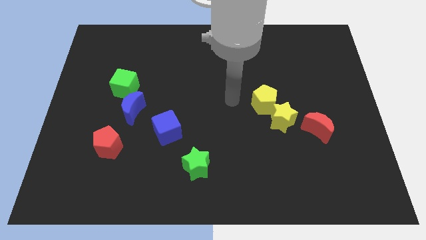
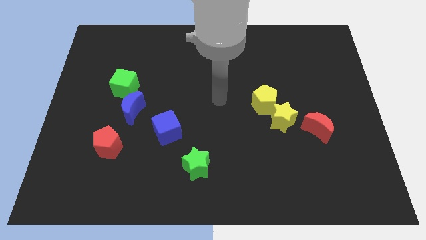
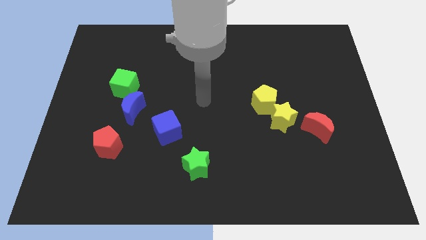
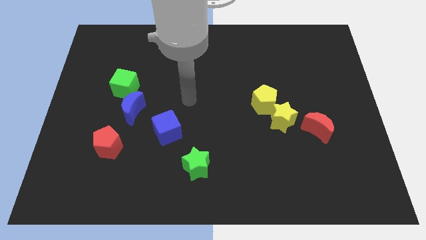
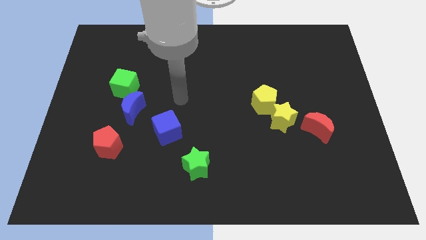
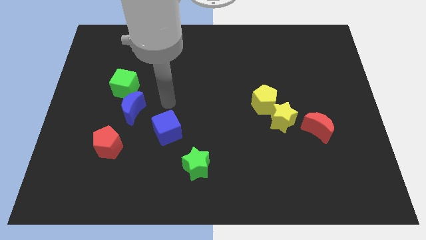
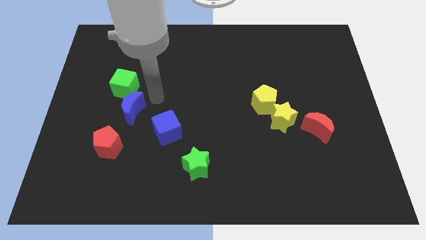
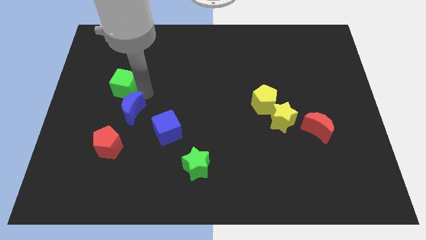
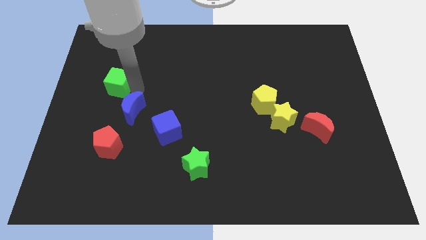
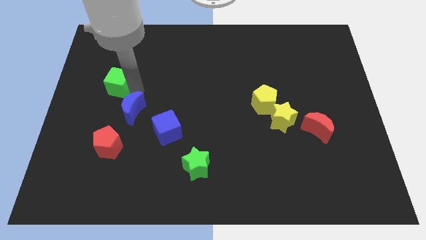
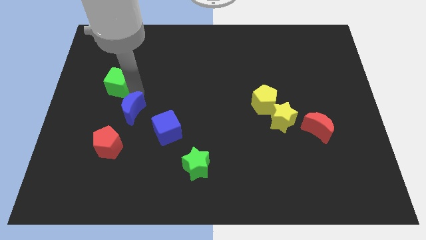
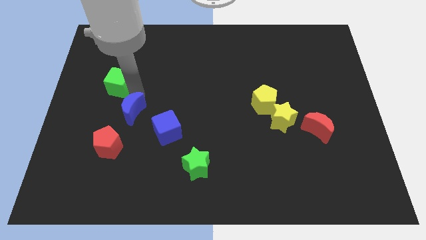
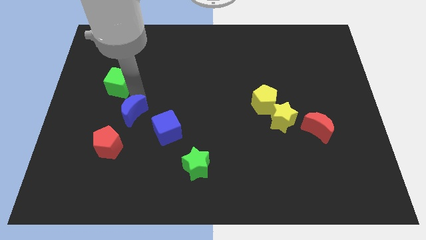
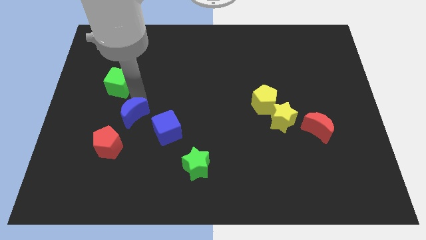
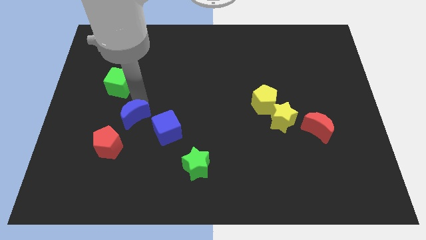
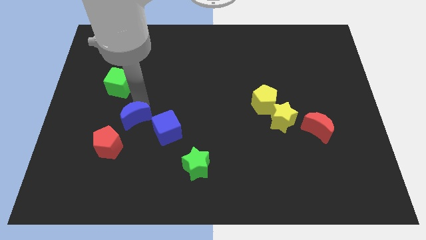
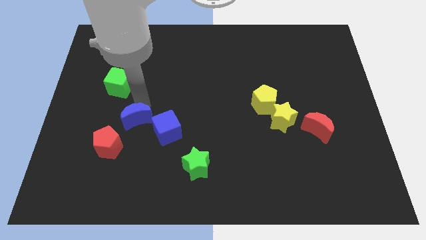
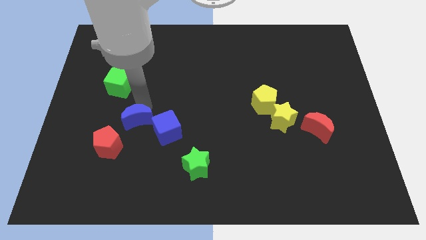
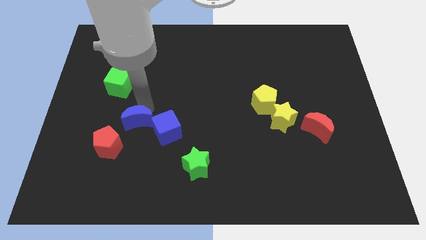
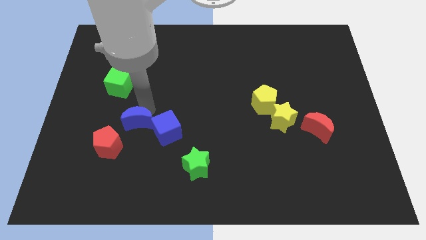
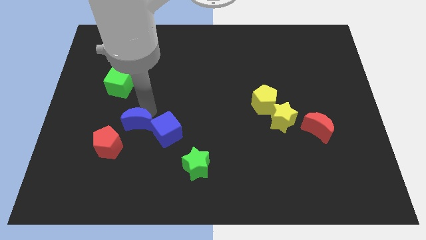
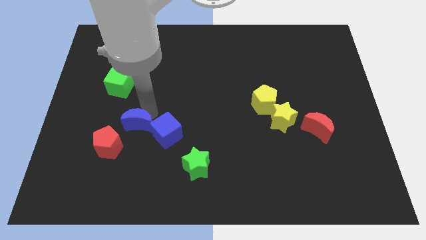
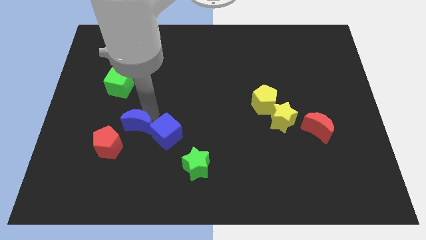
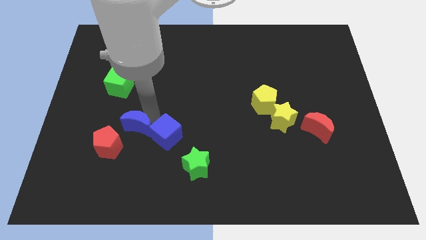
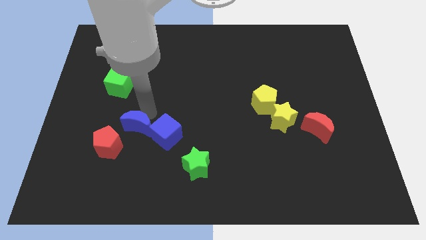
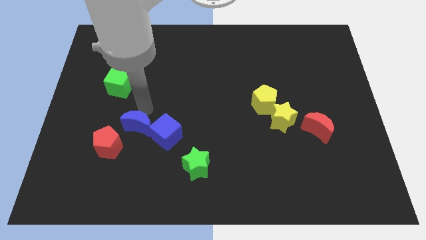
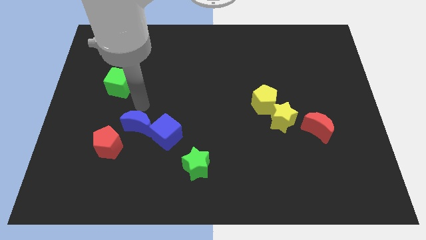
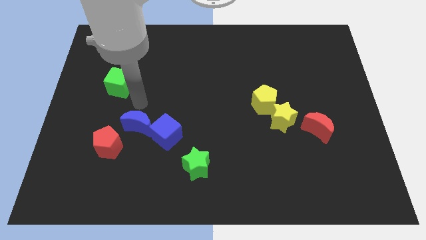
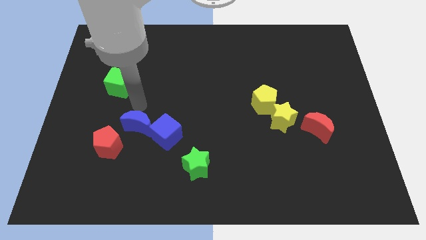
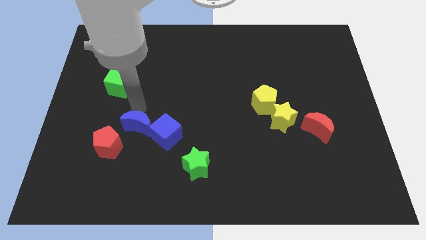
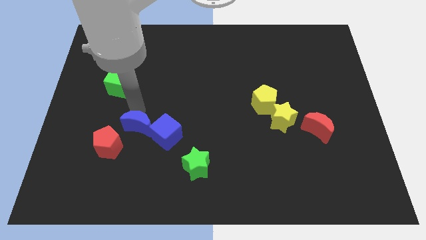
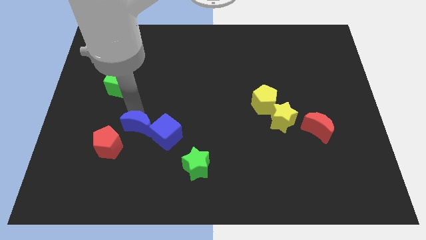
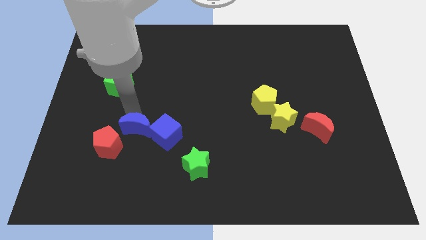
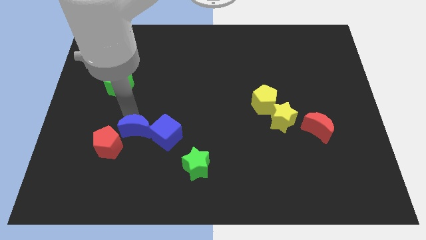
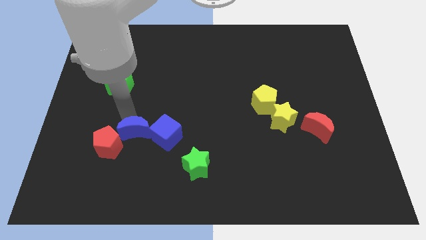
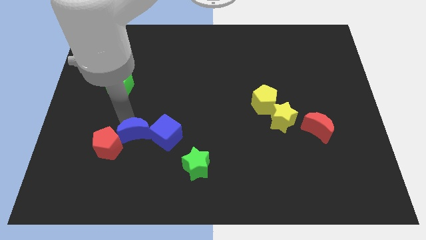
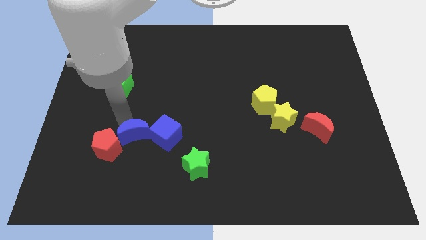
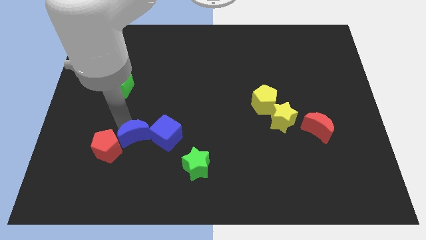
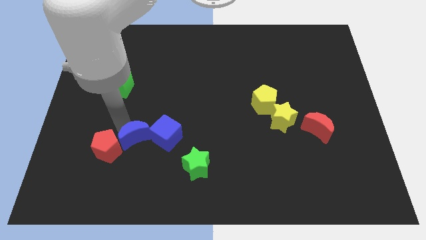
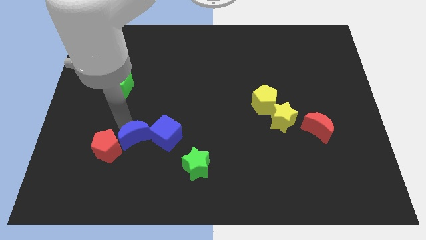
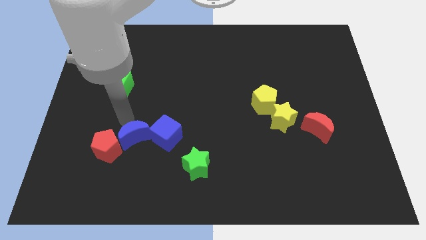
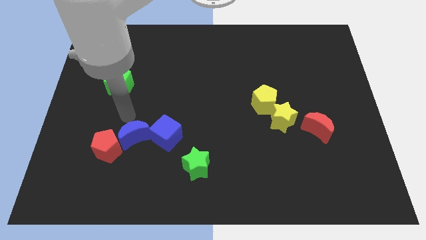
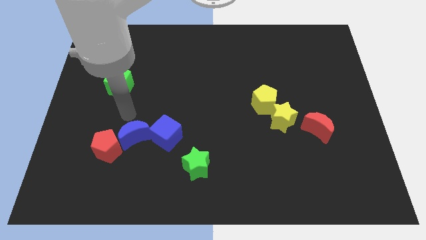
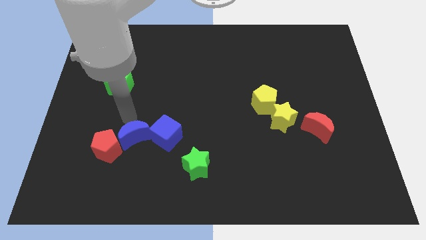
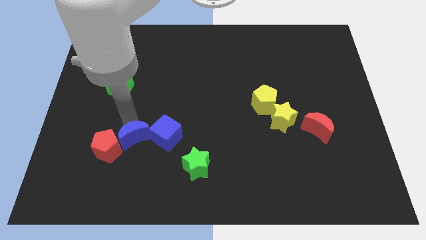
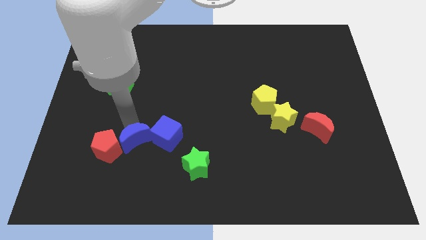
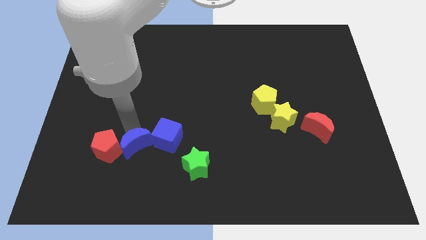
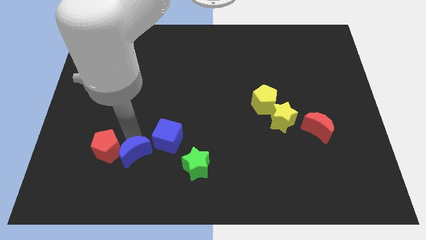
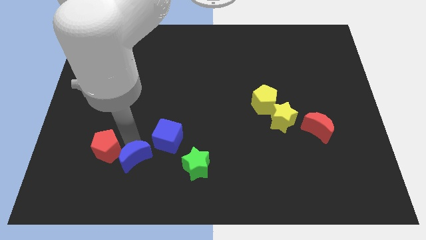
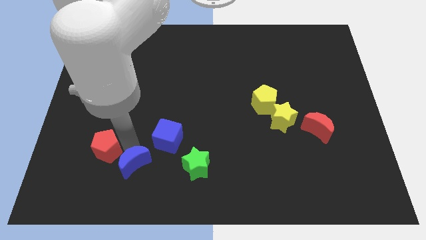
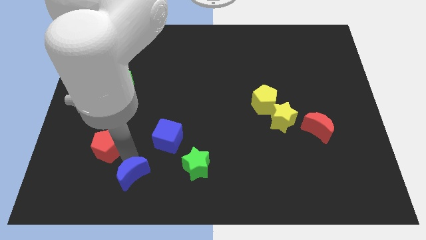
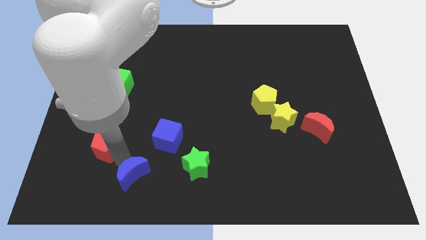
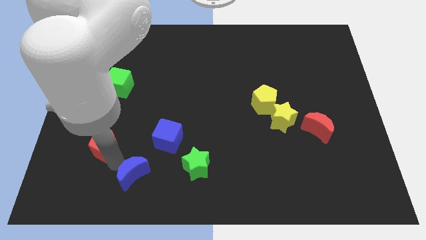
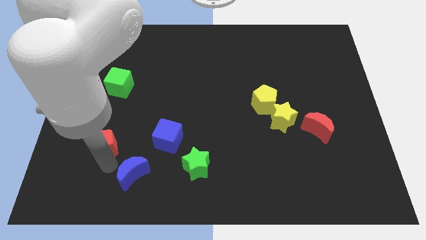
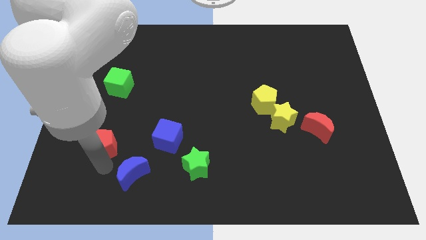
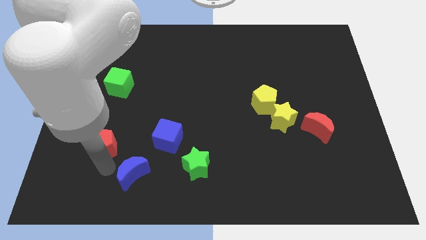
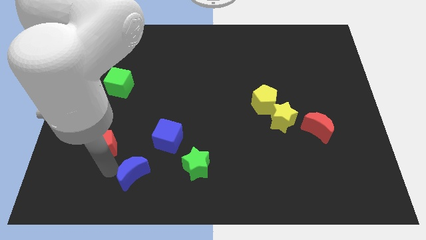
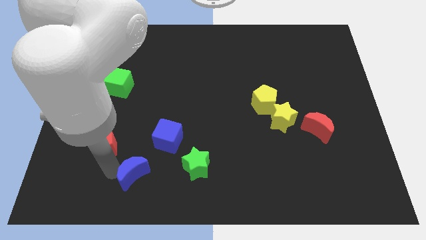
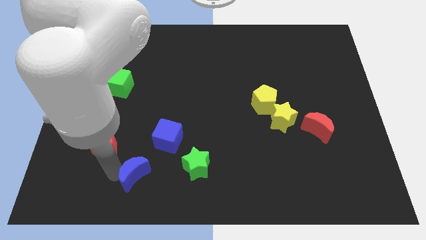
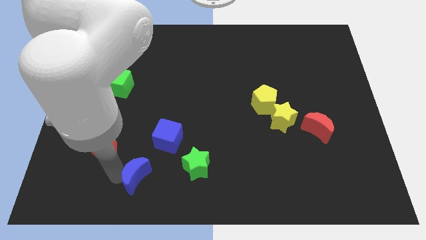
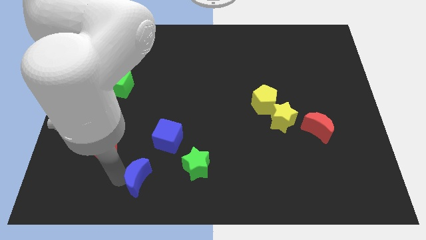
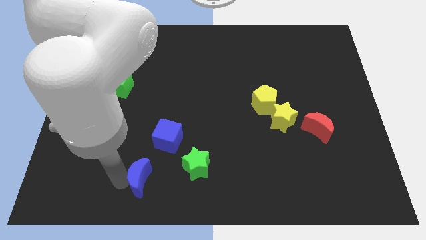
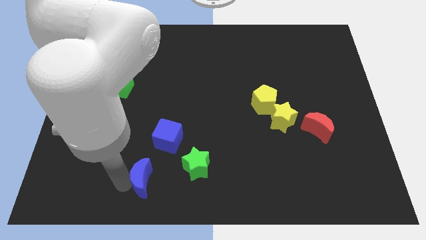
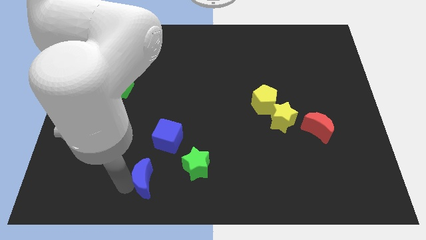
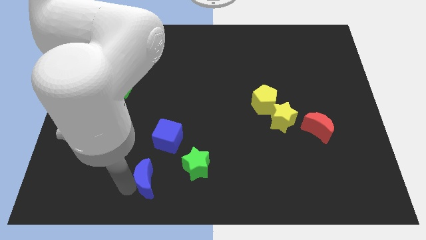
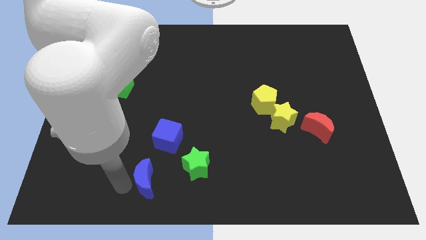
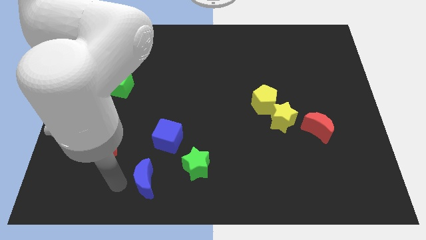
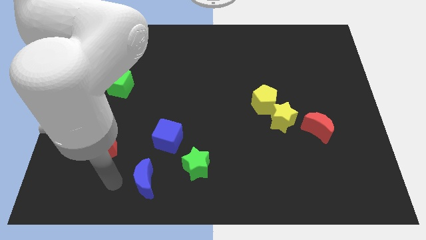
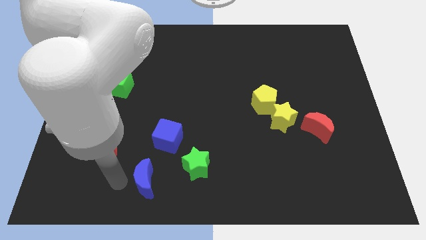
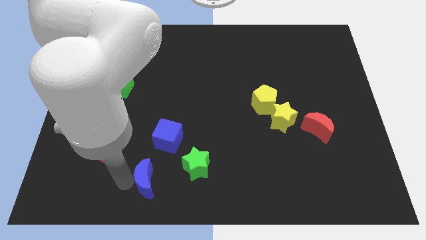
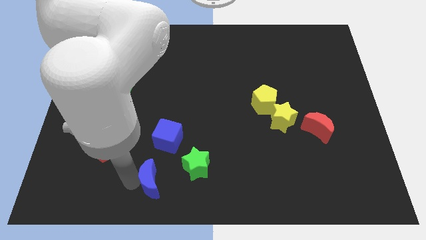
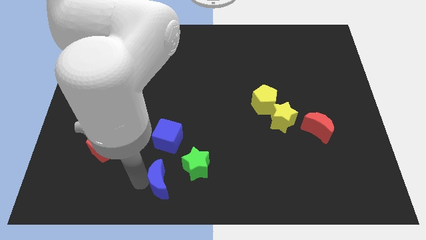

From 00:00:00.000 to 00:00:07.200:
move the blue moon to the bottom side
